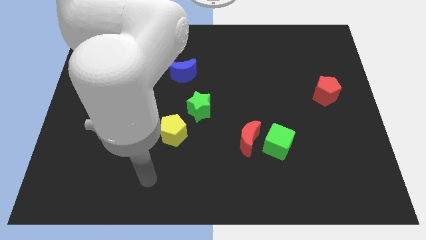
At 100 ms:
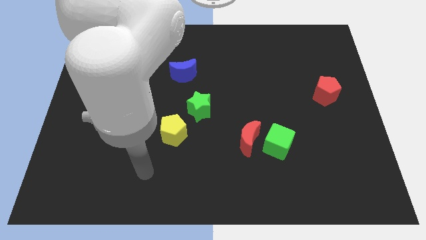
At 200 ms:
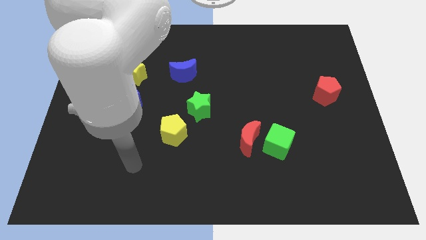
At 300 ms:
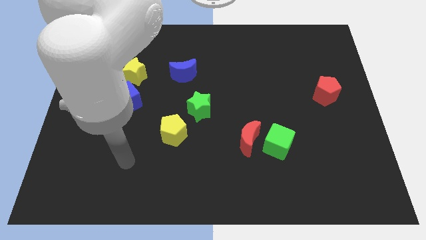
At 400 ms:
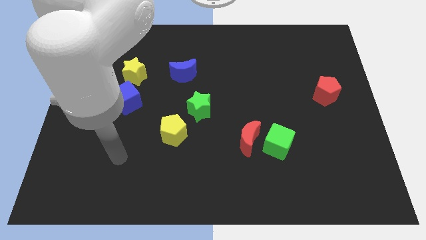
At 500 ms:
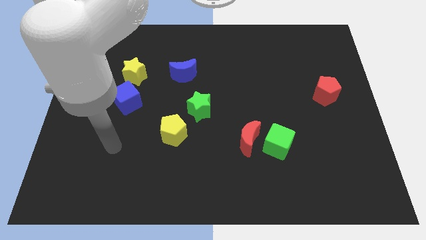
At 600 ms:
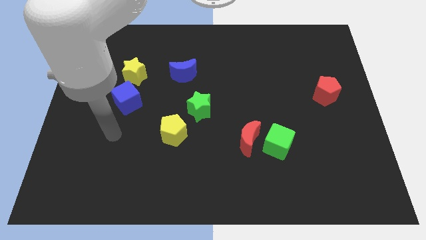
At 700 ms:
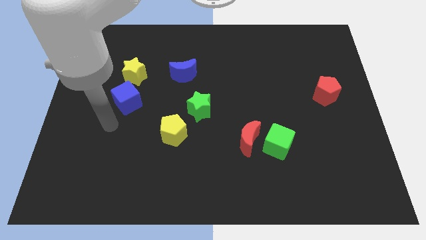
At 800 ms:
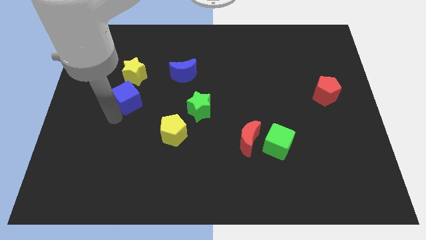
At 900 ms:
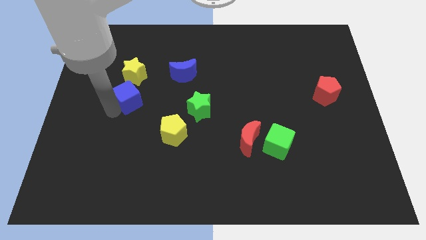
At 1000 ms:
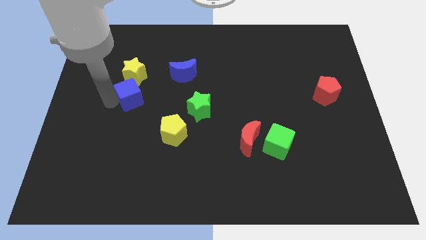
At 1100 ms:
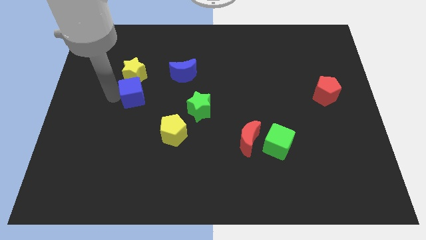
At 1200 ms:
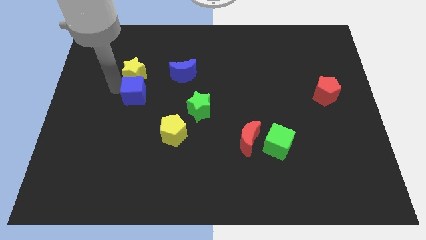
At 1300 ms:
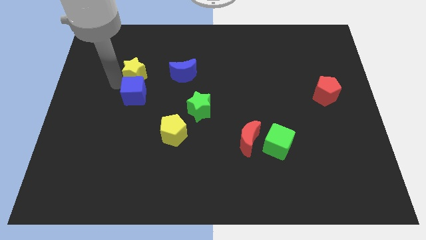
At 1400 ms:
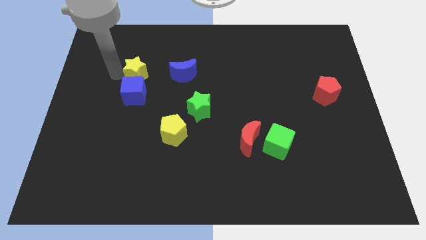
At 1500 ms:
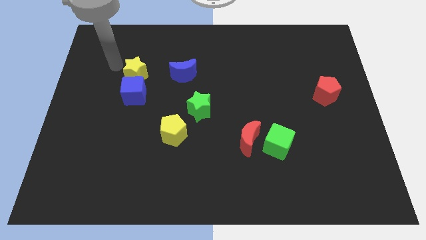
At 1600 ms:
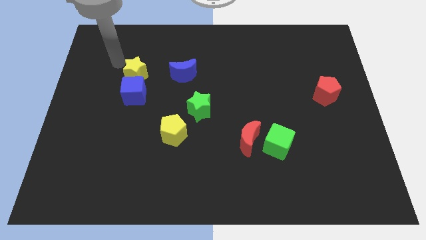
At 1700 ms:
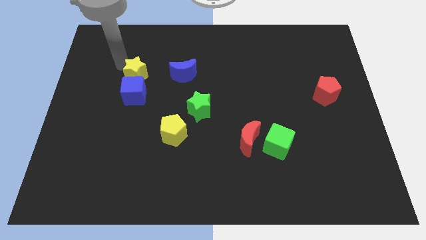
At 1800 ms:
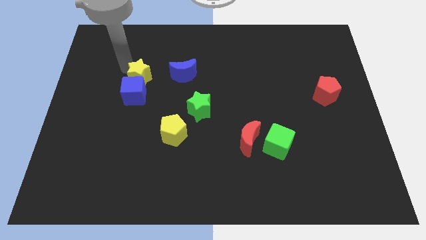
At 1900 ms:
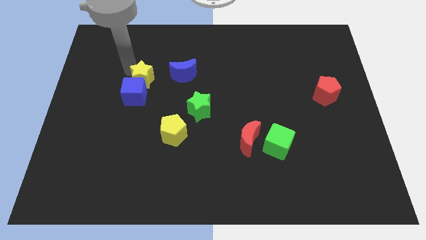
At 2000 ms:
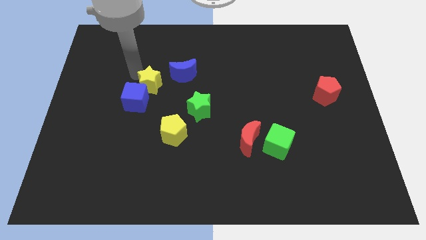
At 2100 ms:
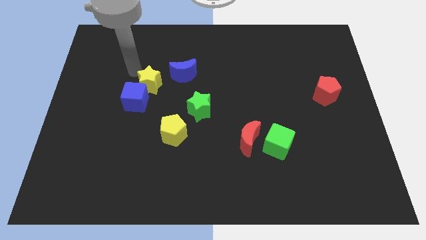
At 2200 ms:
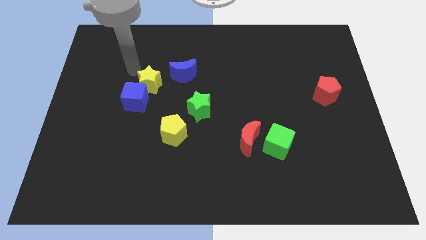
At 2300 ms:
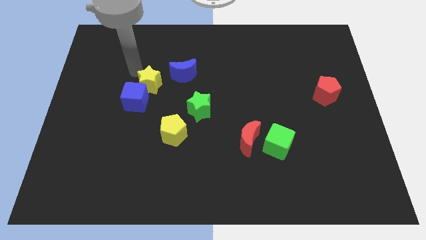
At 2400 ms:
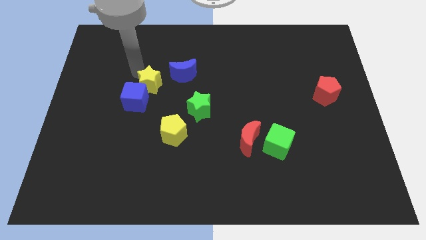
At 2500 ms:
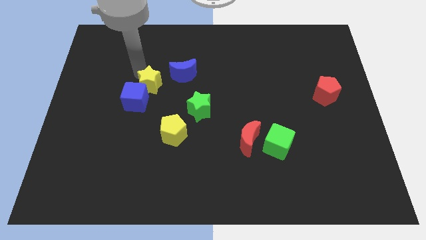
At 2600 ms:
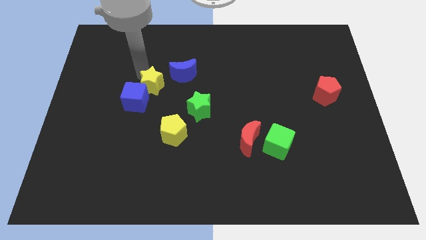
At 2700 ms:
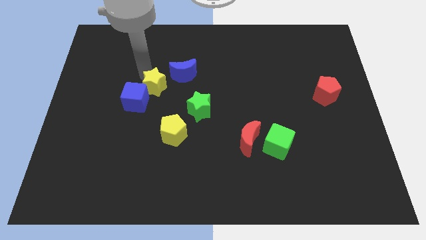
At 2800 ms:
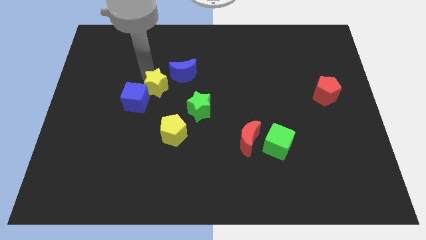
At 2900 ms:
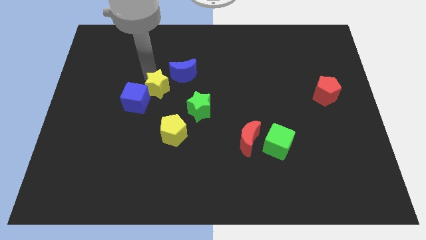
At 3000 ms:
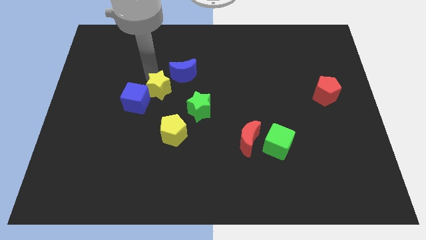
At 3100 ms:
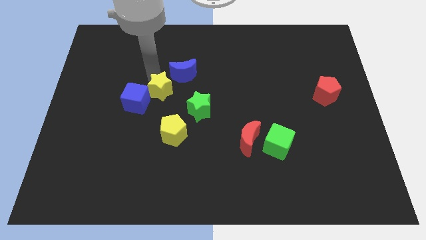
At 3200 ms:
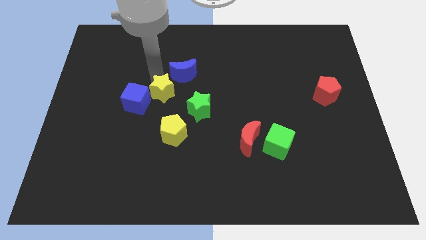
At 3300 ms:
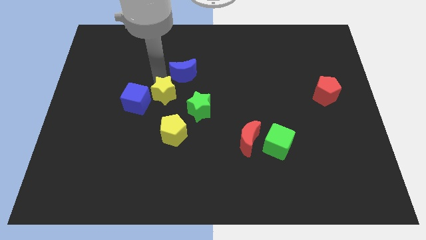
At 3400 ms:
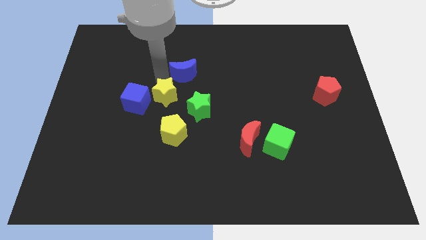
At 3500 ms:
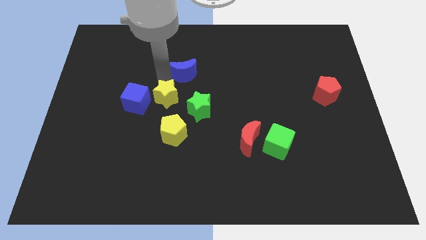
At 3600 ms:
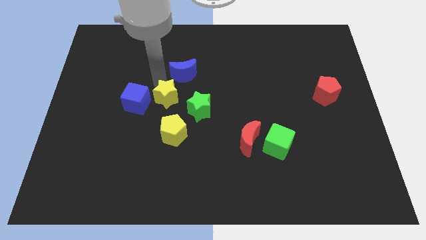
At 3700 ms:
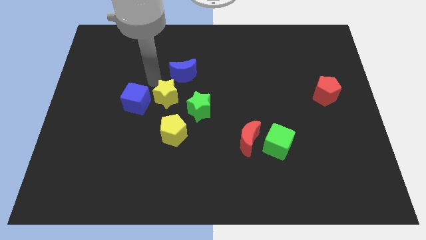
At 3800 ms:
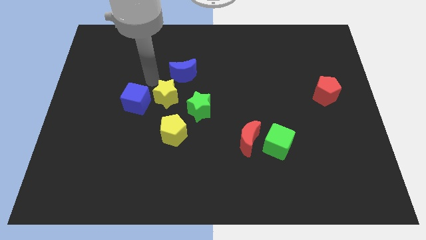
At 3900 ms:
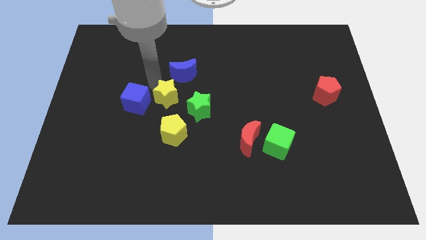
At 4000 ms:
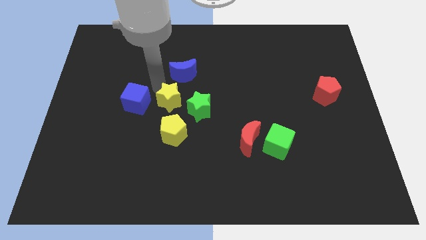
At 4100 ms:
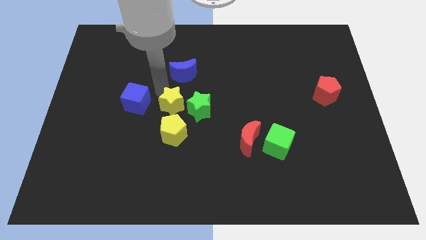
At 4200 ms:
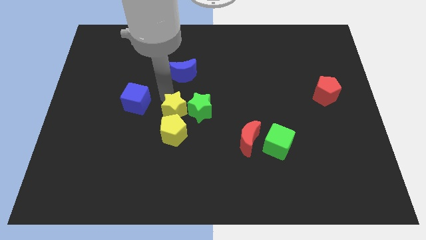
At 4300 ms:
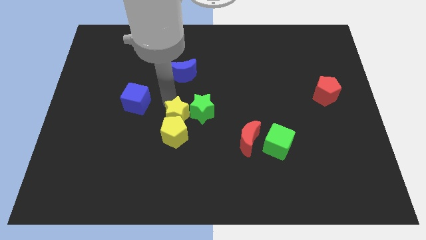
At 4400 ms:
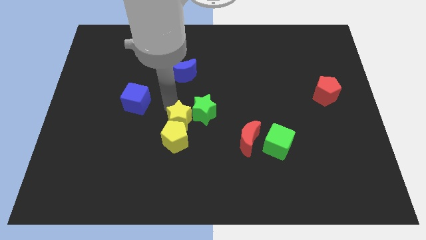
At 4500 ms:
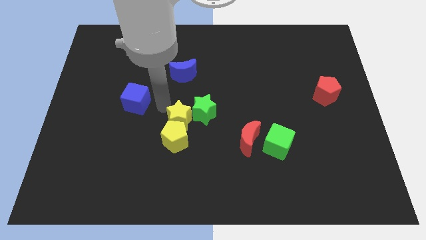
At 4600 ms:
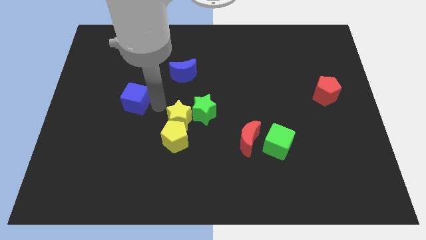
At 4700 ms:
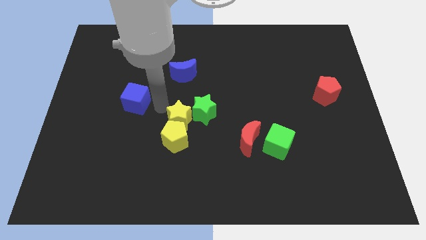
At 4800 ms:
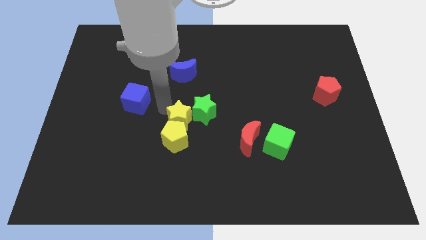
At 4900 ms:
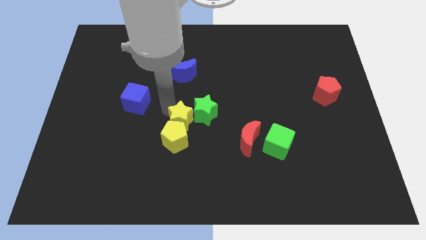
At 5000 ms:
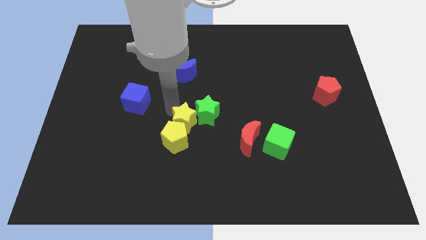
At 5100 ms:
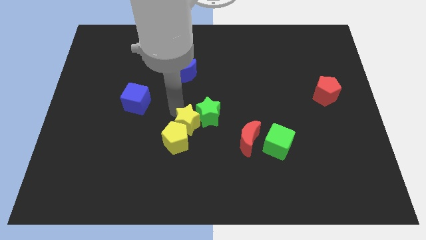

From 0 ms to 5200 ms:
slide the yellow star down and then right

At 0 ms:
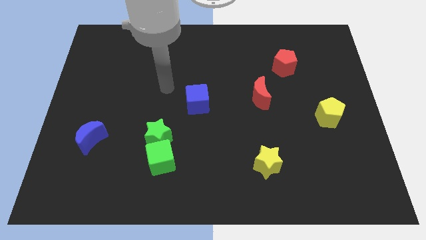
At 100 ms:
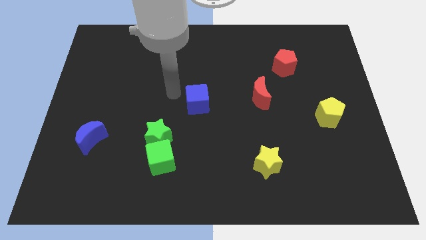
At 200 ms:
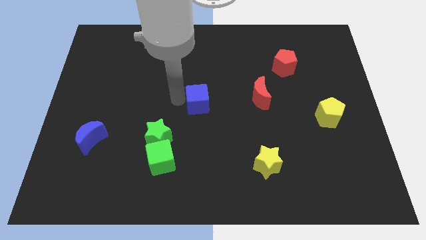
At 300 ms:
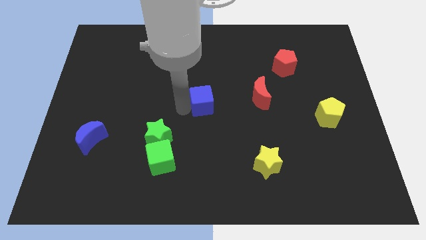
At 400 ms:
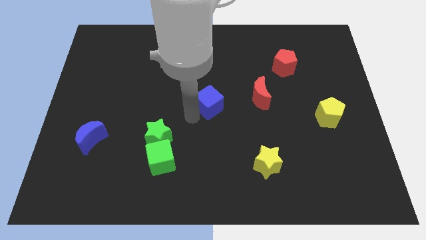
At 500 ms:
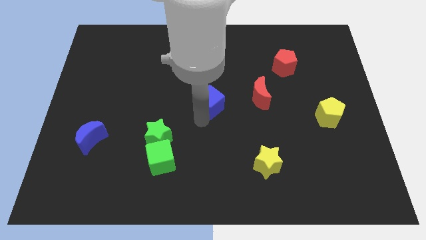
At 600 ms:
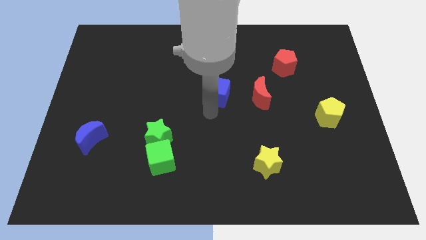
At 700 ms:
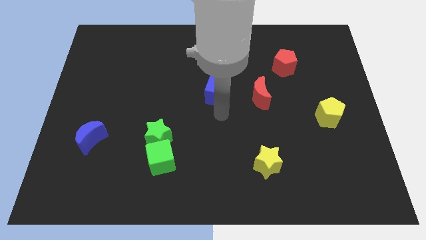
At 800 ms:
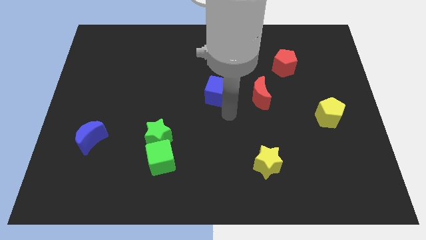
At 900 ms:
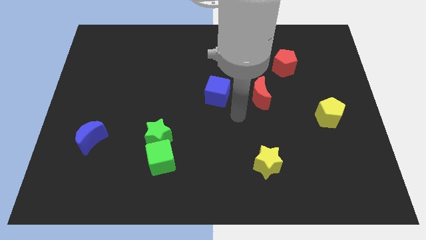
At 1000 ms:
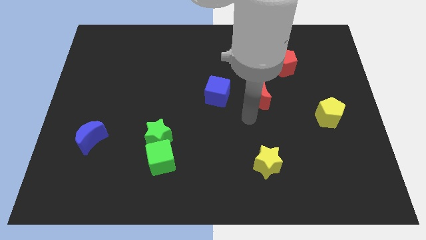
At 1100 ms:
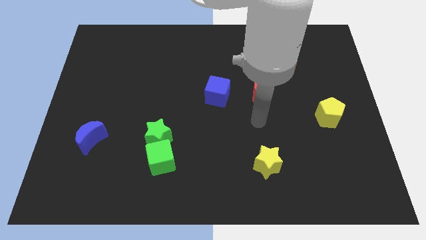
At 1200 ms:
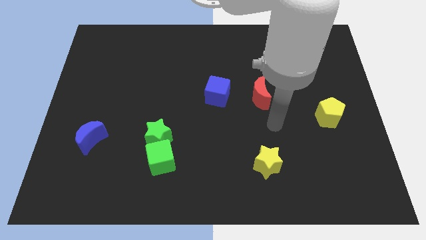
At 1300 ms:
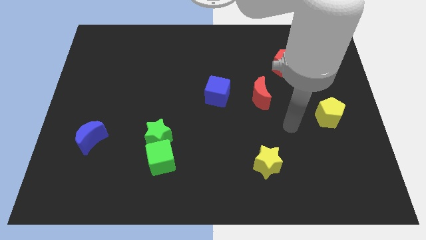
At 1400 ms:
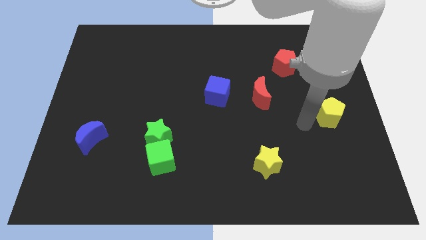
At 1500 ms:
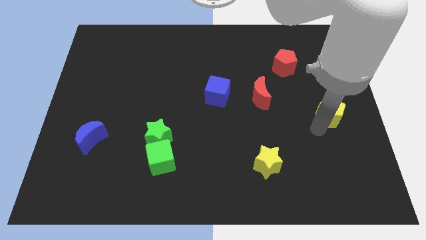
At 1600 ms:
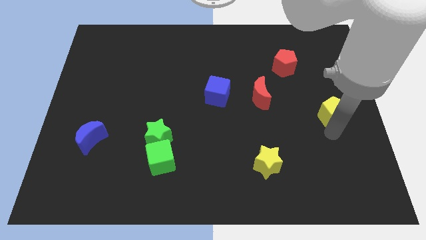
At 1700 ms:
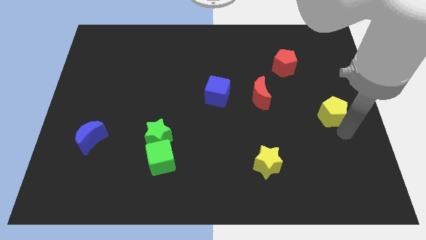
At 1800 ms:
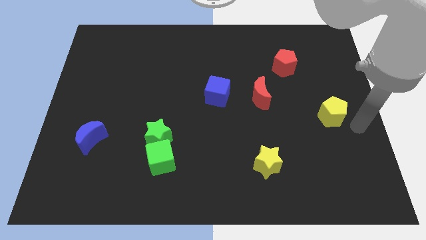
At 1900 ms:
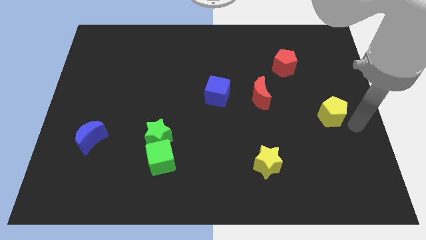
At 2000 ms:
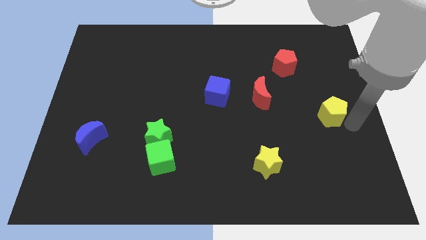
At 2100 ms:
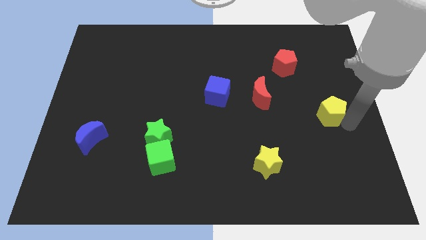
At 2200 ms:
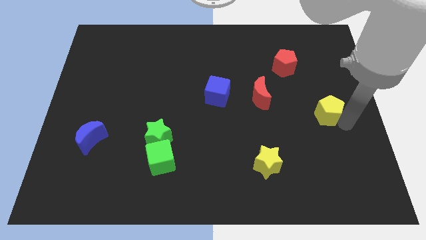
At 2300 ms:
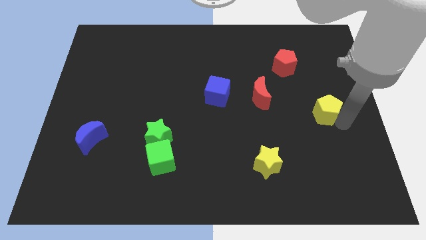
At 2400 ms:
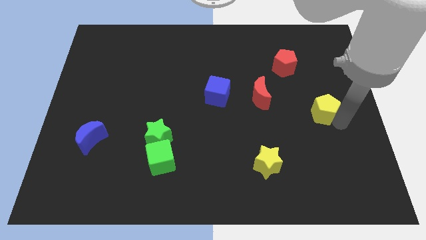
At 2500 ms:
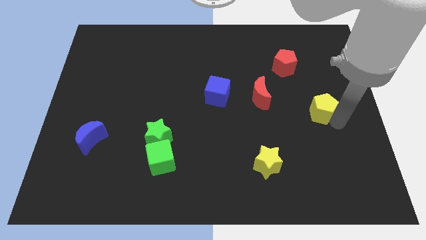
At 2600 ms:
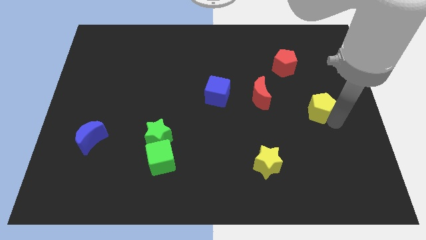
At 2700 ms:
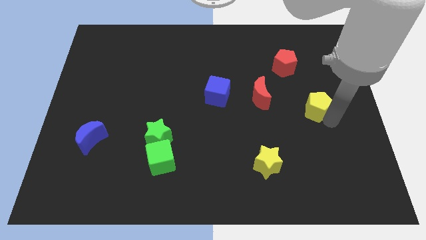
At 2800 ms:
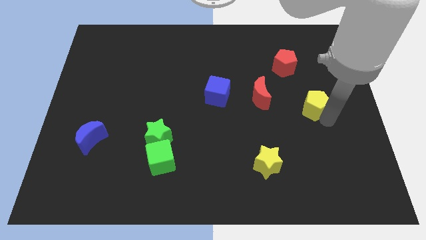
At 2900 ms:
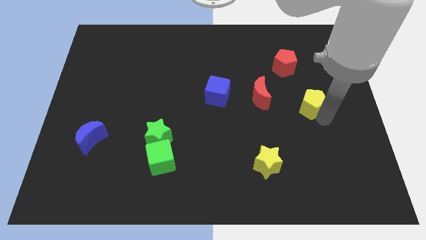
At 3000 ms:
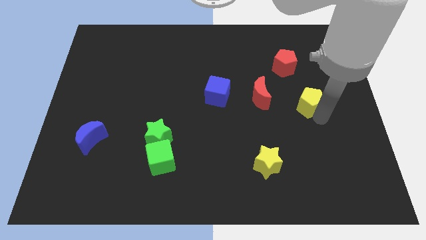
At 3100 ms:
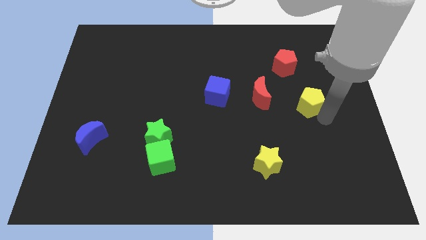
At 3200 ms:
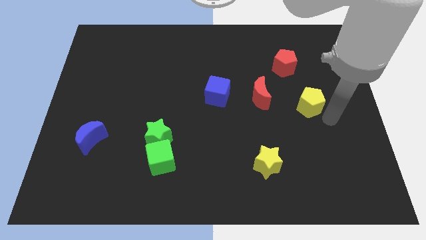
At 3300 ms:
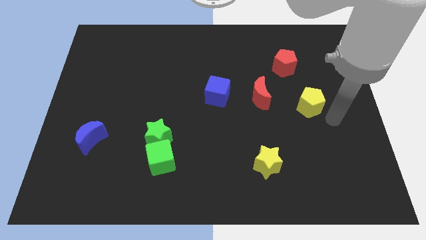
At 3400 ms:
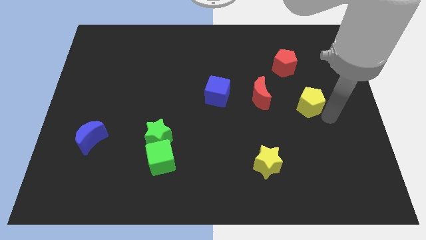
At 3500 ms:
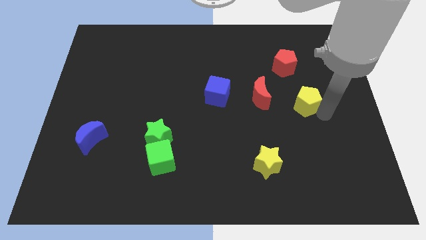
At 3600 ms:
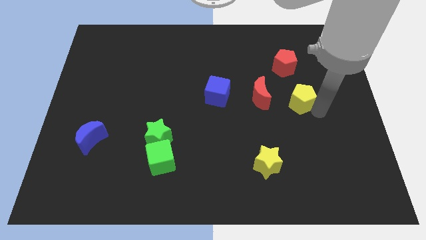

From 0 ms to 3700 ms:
slightly push the yellow pentagon up and then to the left
